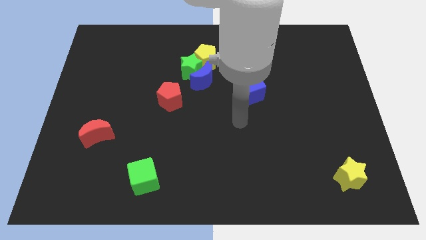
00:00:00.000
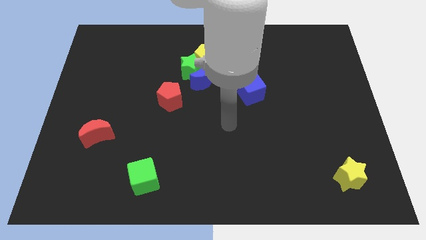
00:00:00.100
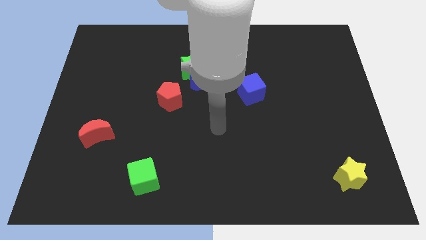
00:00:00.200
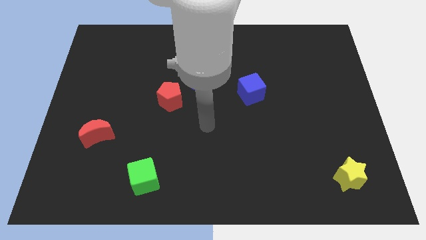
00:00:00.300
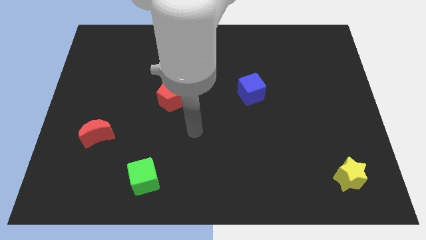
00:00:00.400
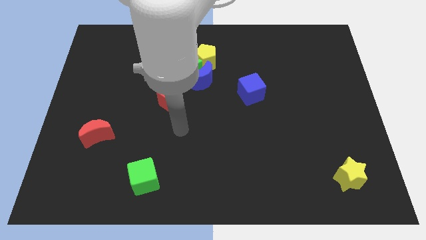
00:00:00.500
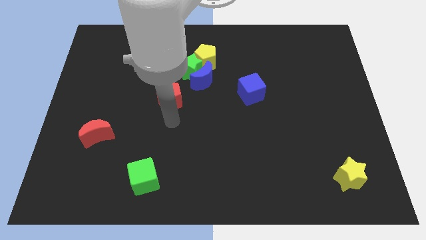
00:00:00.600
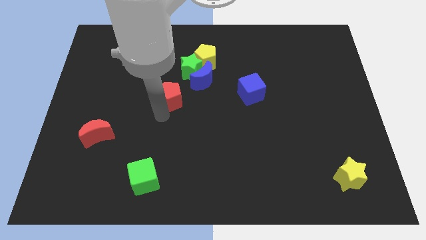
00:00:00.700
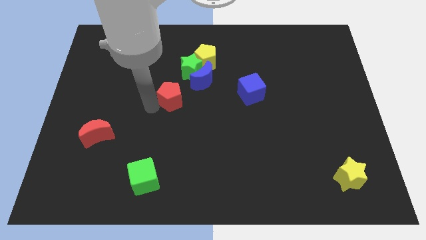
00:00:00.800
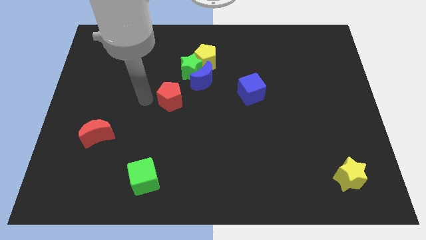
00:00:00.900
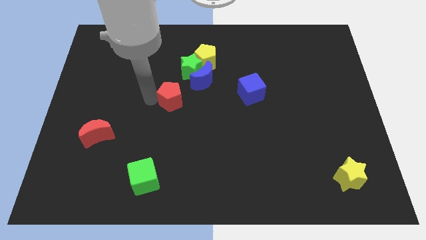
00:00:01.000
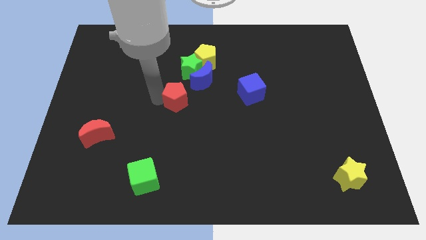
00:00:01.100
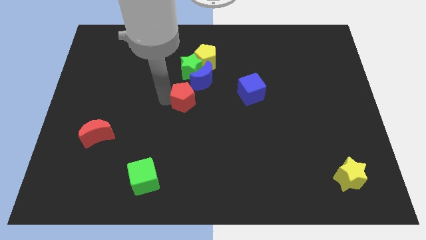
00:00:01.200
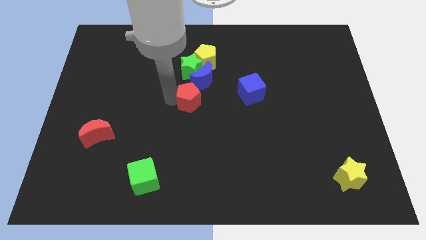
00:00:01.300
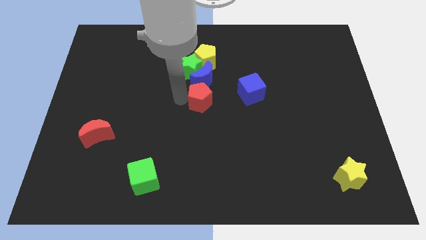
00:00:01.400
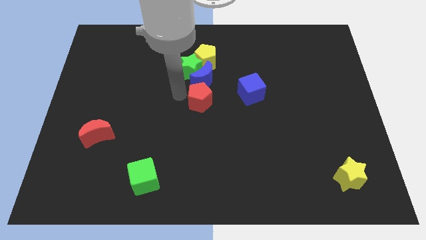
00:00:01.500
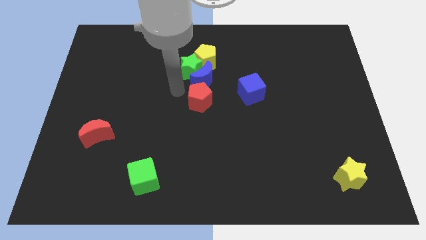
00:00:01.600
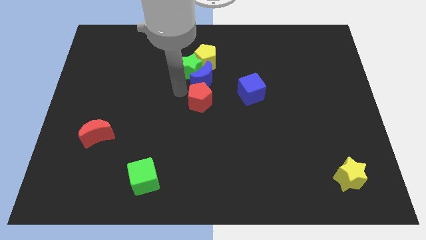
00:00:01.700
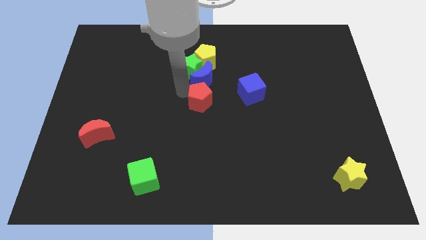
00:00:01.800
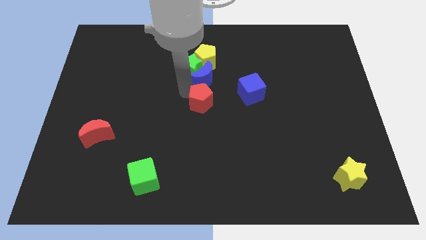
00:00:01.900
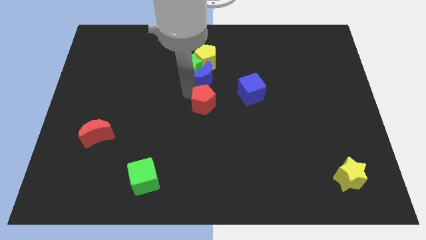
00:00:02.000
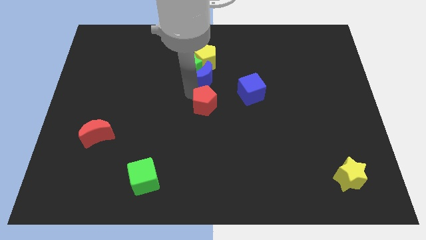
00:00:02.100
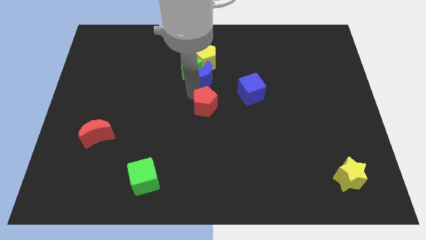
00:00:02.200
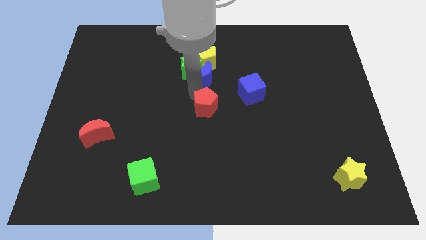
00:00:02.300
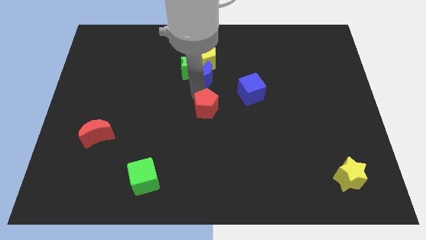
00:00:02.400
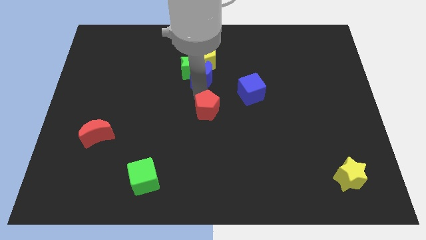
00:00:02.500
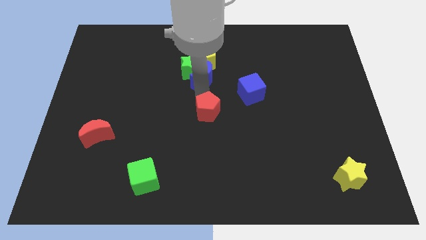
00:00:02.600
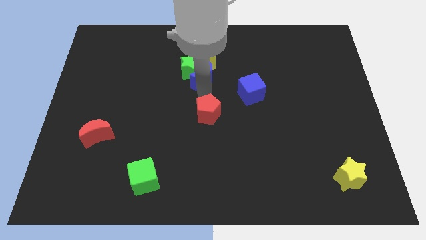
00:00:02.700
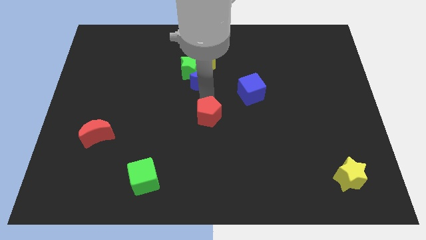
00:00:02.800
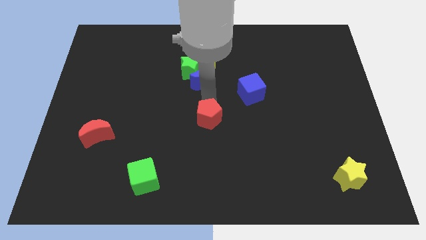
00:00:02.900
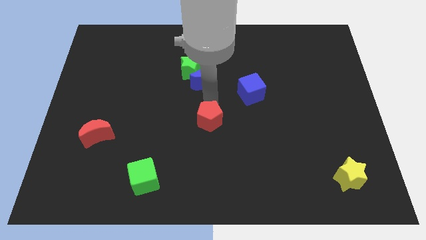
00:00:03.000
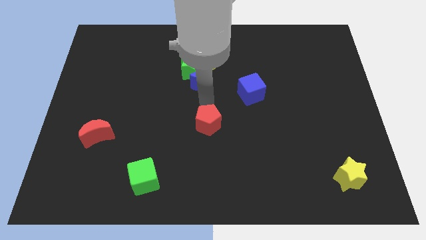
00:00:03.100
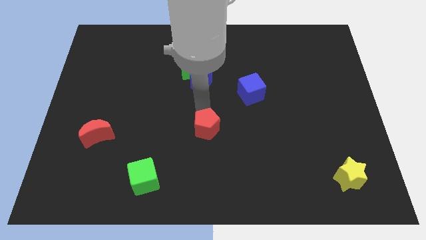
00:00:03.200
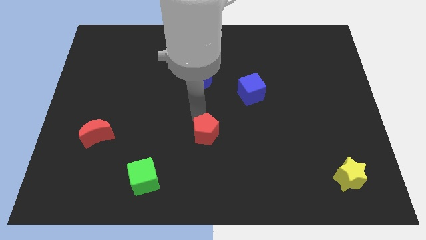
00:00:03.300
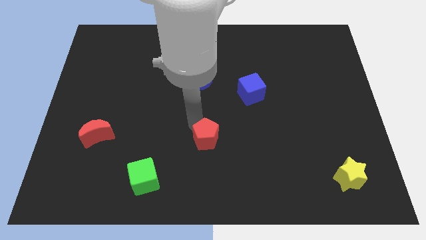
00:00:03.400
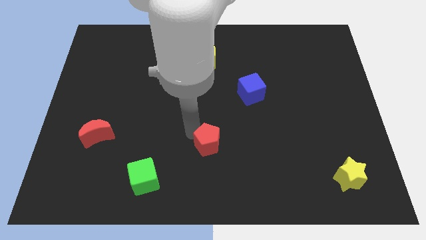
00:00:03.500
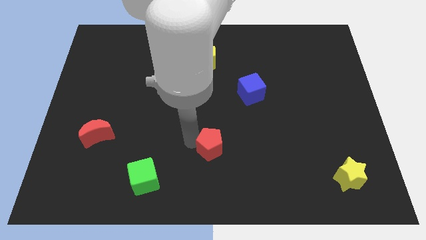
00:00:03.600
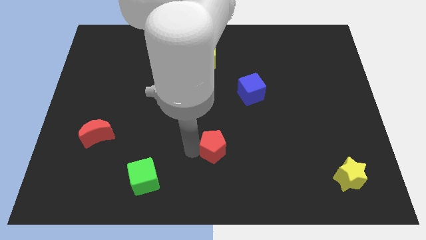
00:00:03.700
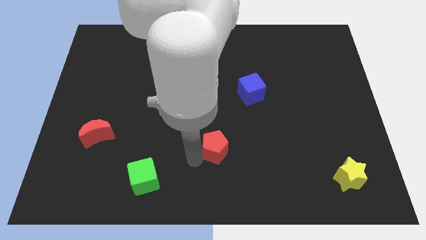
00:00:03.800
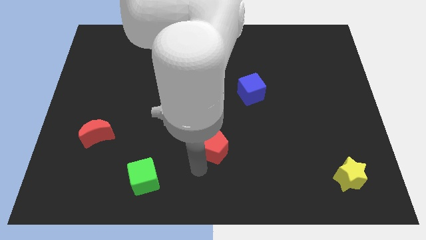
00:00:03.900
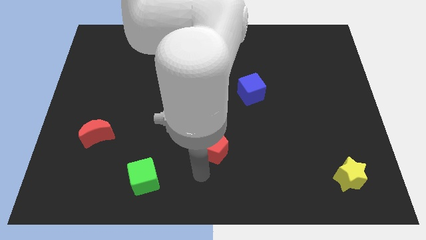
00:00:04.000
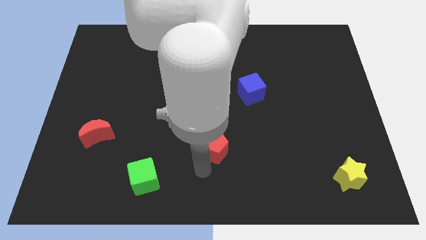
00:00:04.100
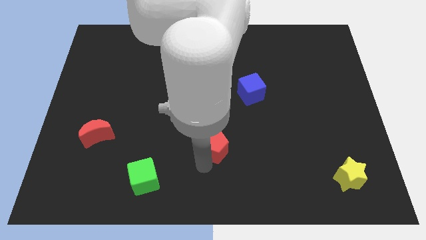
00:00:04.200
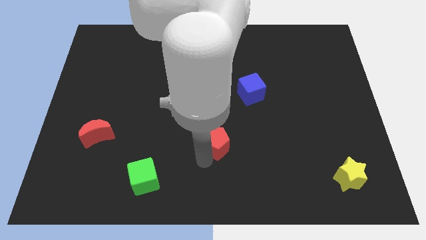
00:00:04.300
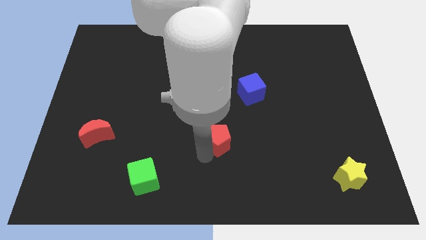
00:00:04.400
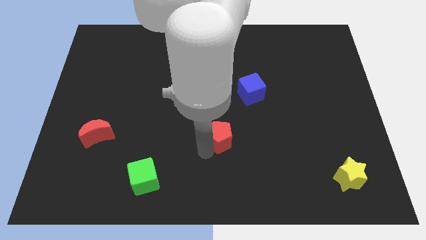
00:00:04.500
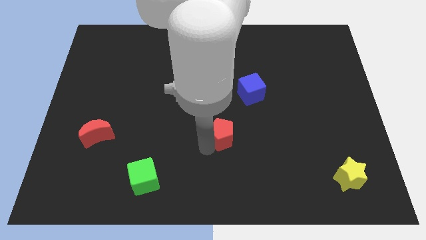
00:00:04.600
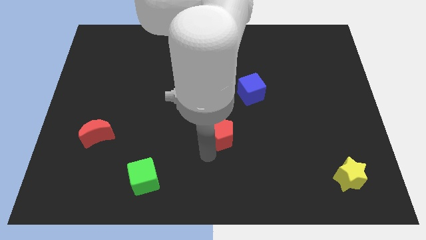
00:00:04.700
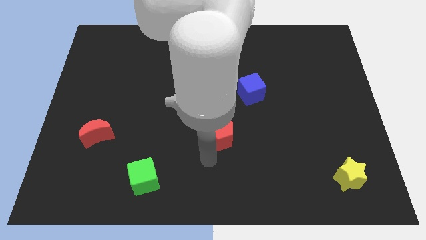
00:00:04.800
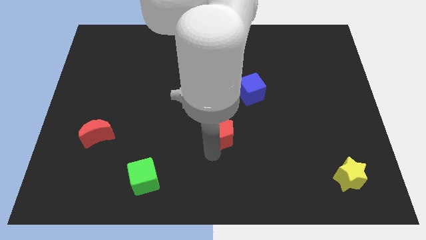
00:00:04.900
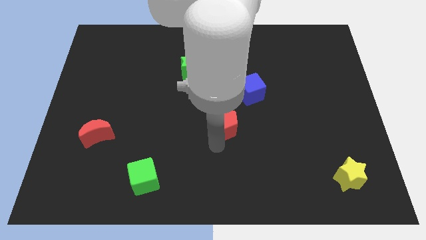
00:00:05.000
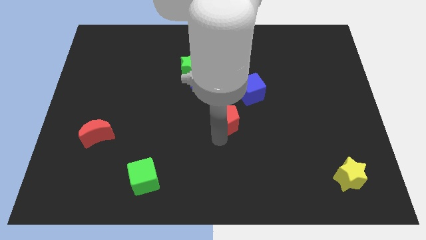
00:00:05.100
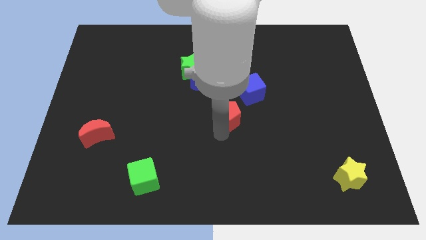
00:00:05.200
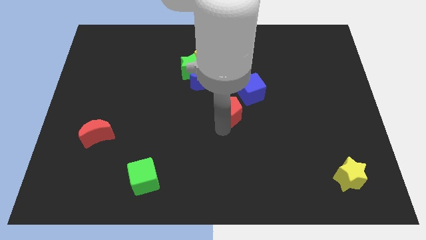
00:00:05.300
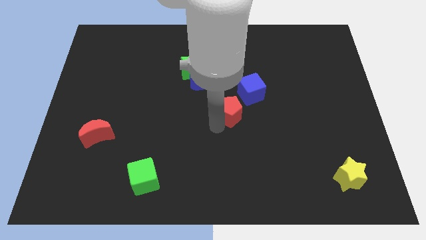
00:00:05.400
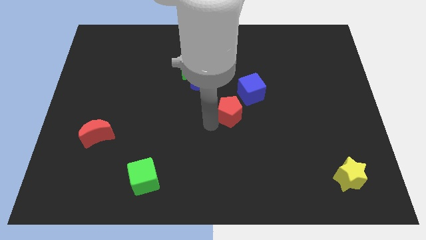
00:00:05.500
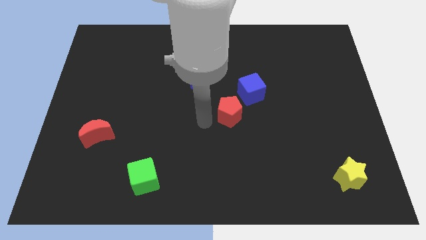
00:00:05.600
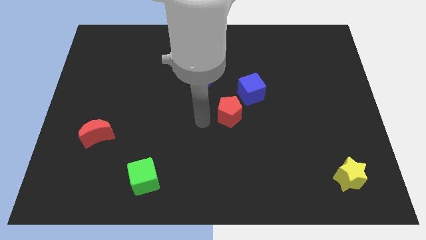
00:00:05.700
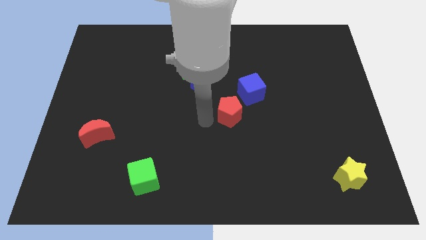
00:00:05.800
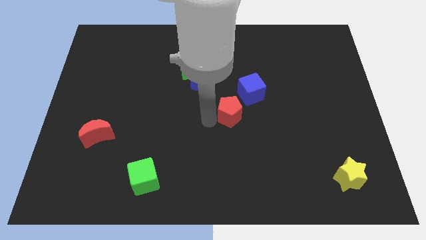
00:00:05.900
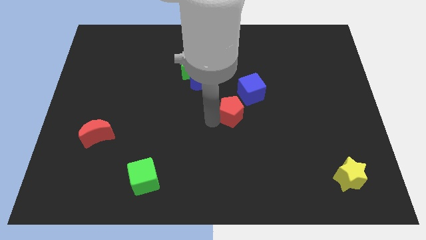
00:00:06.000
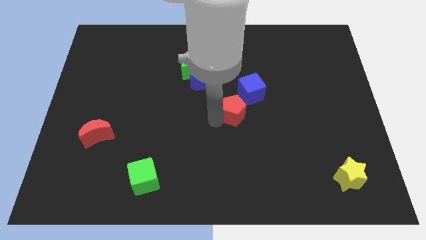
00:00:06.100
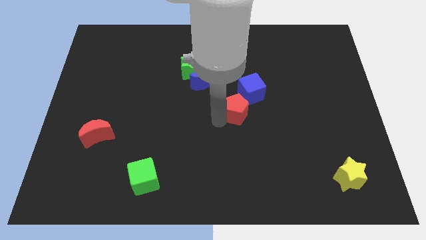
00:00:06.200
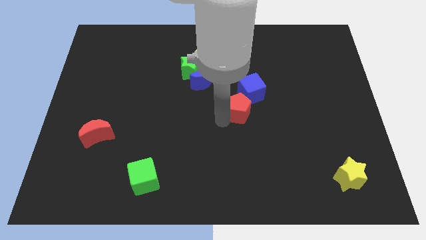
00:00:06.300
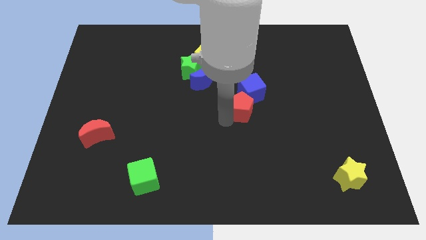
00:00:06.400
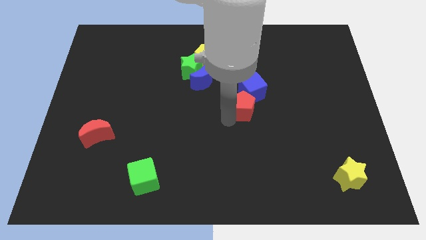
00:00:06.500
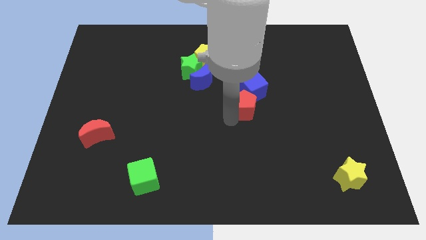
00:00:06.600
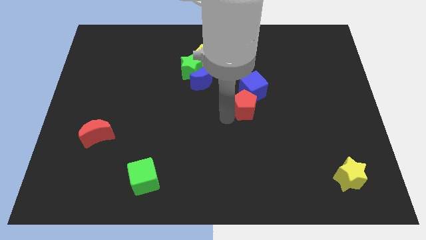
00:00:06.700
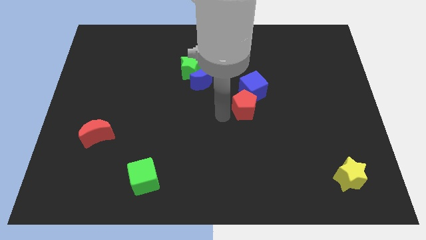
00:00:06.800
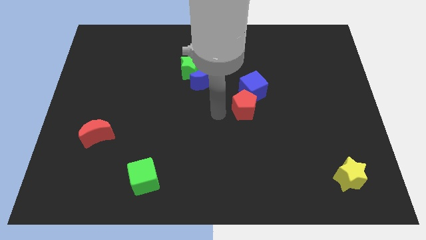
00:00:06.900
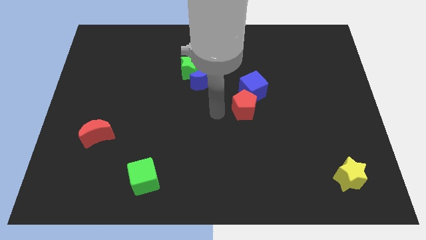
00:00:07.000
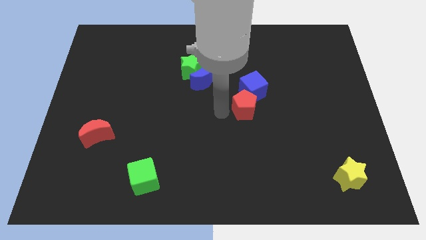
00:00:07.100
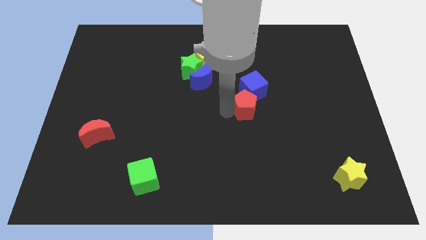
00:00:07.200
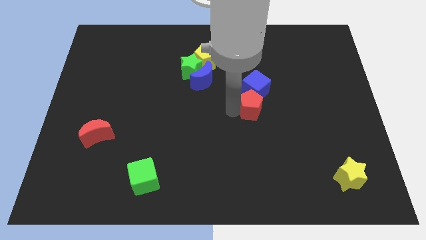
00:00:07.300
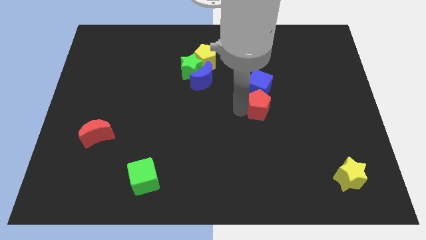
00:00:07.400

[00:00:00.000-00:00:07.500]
push the red pentagon right
